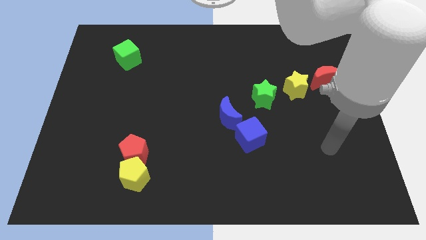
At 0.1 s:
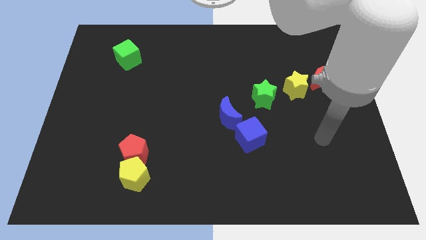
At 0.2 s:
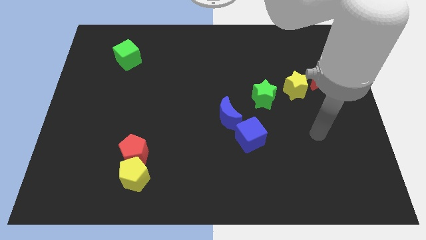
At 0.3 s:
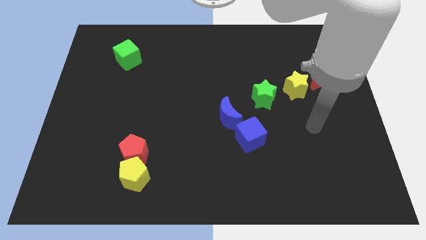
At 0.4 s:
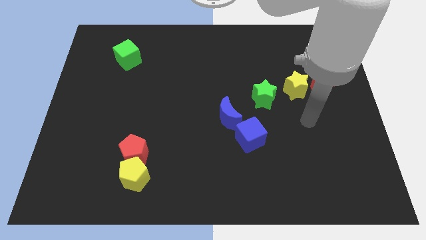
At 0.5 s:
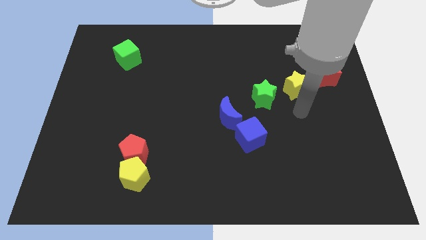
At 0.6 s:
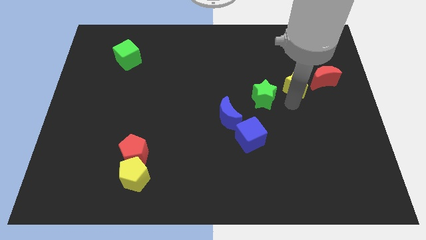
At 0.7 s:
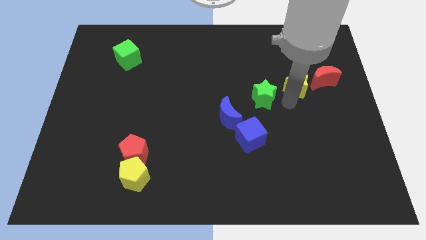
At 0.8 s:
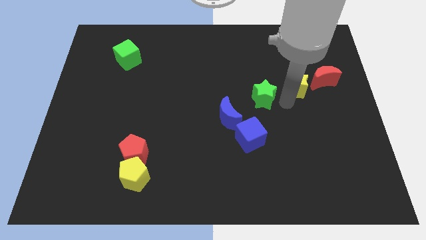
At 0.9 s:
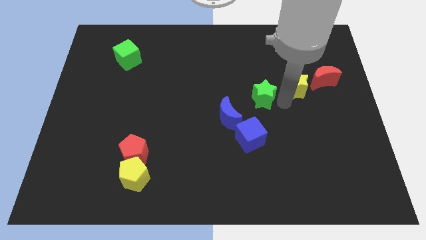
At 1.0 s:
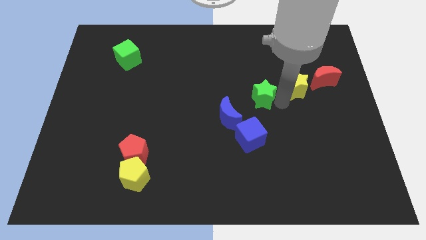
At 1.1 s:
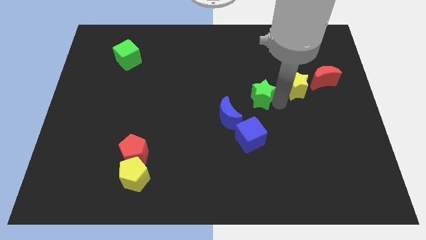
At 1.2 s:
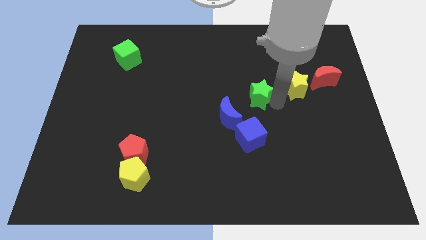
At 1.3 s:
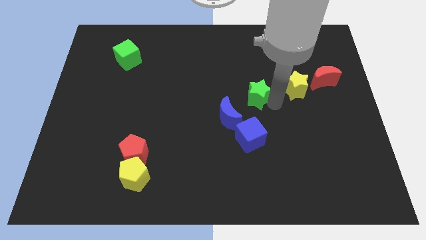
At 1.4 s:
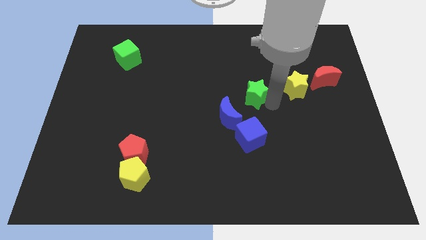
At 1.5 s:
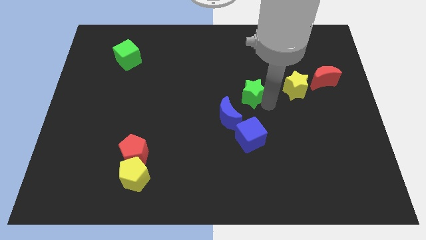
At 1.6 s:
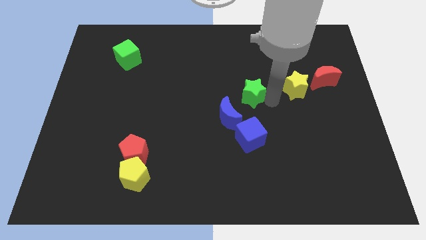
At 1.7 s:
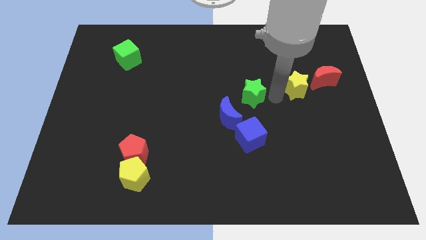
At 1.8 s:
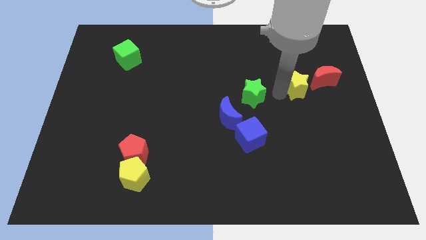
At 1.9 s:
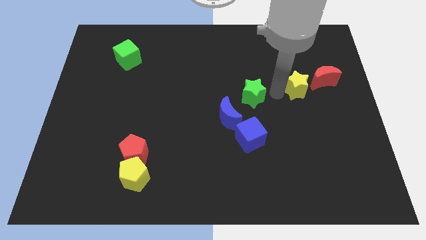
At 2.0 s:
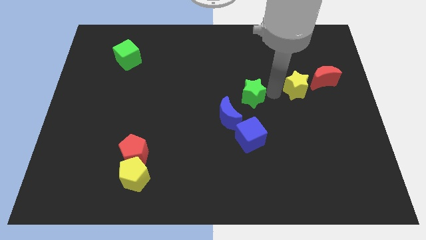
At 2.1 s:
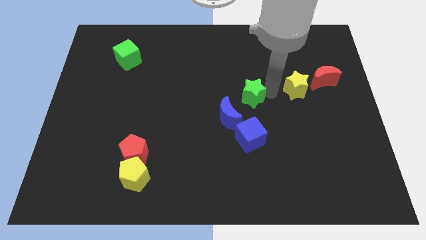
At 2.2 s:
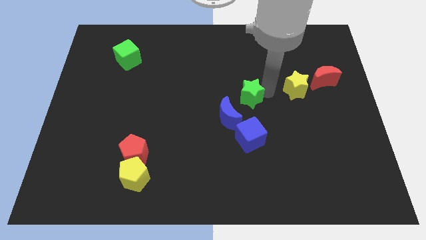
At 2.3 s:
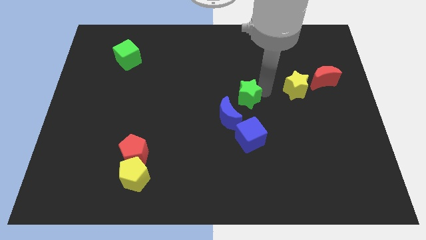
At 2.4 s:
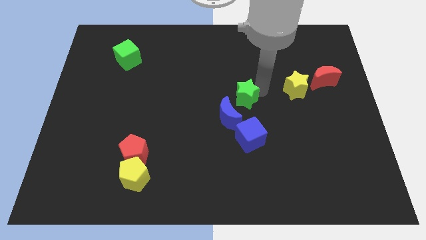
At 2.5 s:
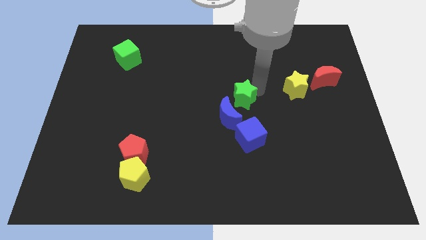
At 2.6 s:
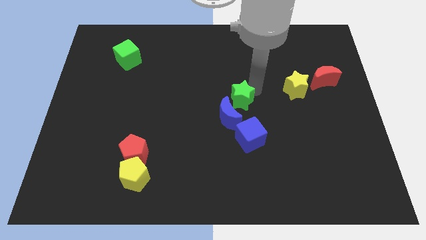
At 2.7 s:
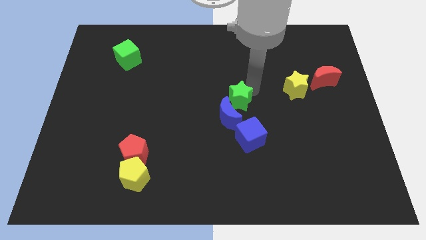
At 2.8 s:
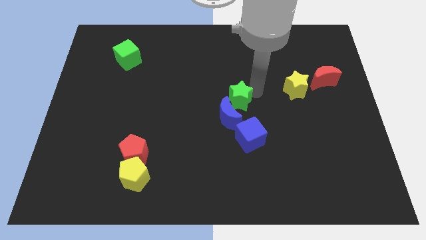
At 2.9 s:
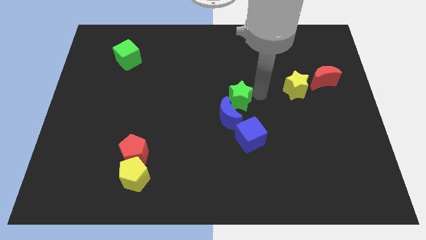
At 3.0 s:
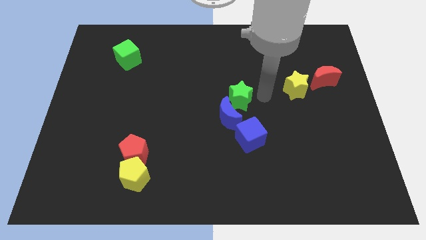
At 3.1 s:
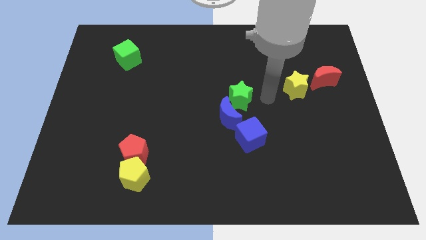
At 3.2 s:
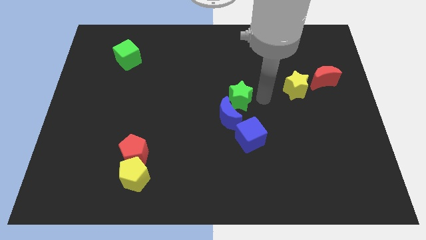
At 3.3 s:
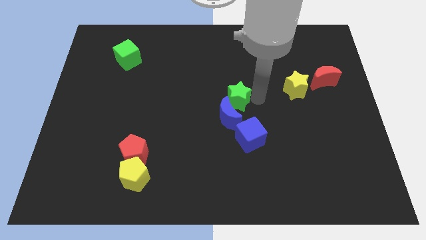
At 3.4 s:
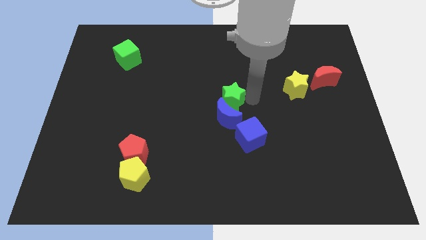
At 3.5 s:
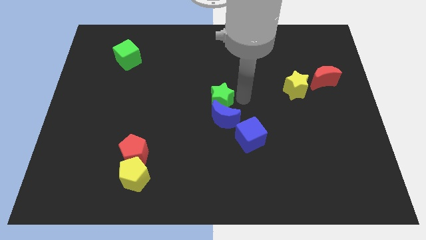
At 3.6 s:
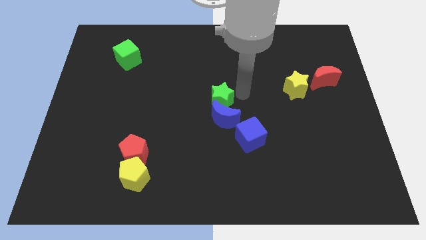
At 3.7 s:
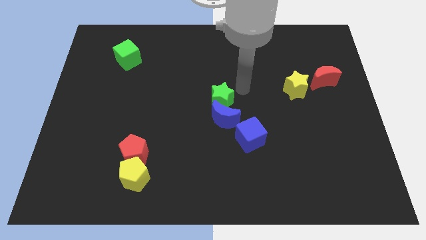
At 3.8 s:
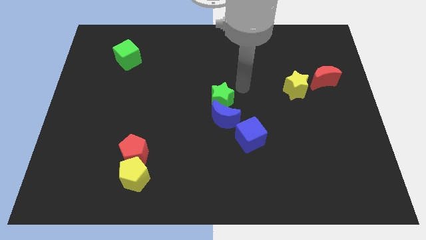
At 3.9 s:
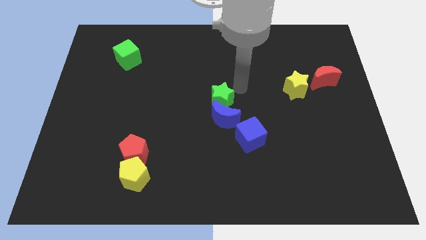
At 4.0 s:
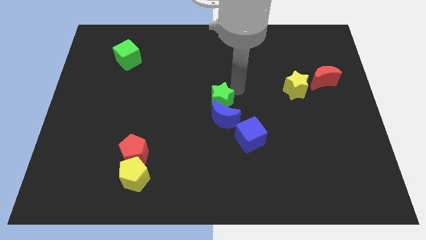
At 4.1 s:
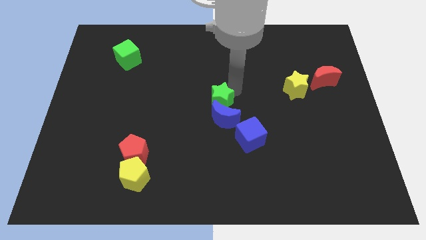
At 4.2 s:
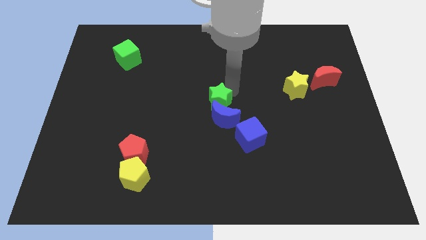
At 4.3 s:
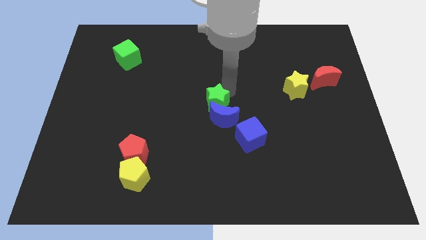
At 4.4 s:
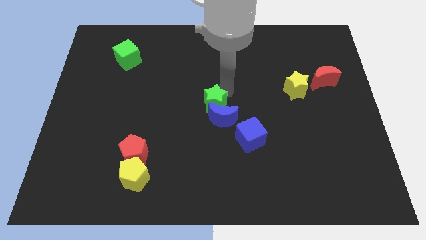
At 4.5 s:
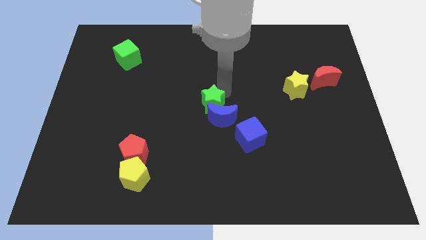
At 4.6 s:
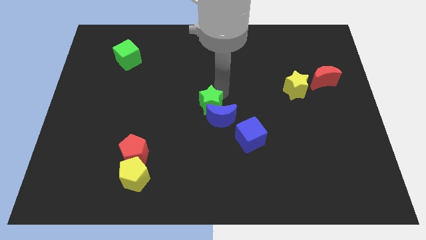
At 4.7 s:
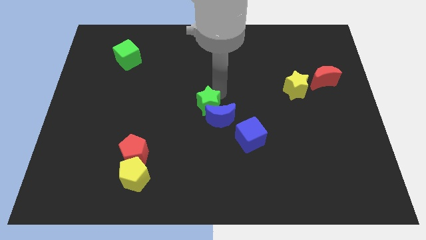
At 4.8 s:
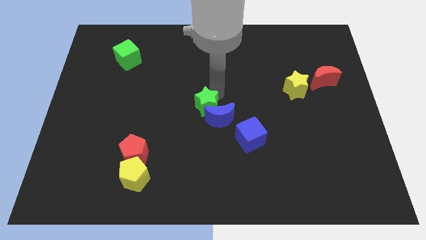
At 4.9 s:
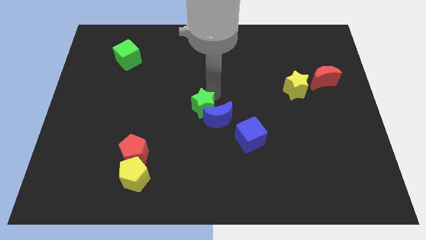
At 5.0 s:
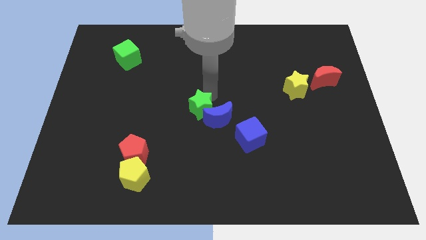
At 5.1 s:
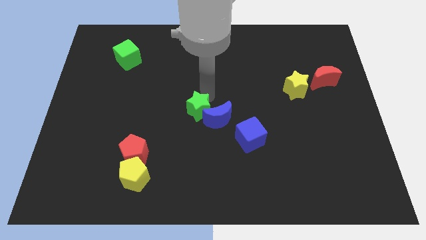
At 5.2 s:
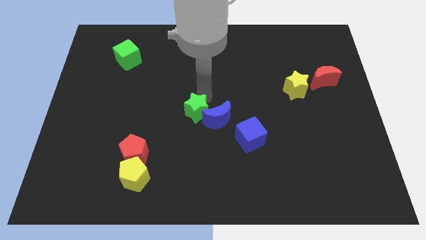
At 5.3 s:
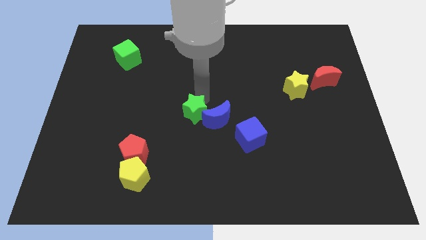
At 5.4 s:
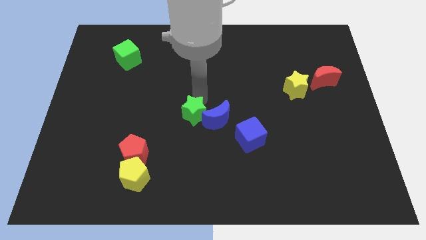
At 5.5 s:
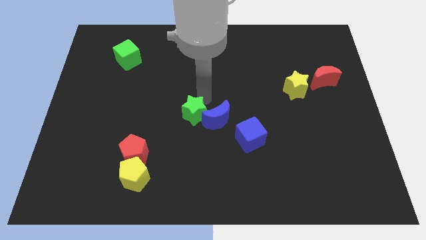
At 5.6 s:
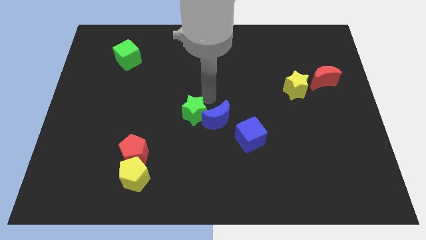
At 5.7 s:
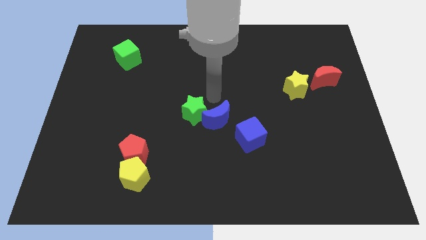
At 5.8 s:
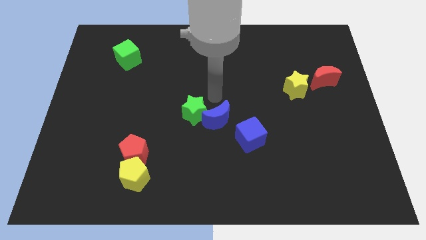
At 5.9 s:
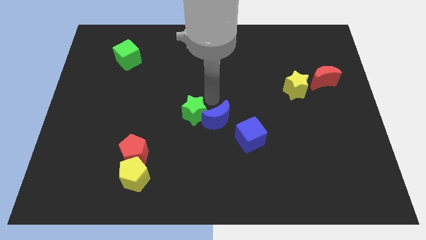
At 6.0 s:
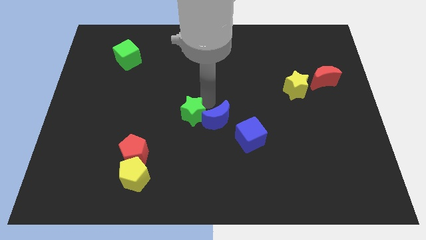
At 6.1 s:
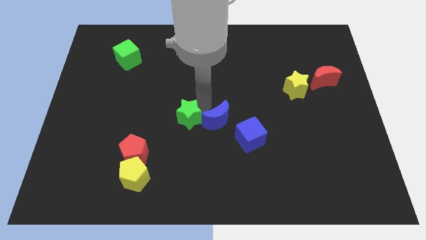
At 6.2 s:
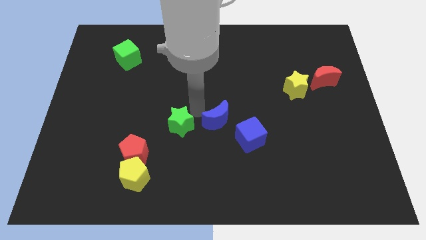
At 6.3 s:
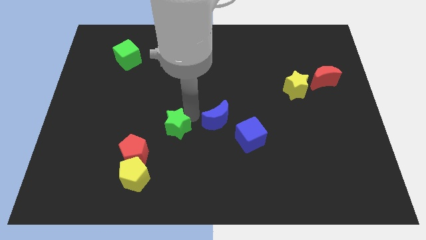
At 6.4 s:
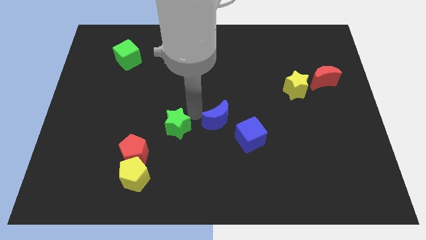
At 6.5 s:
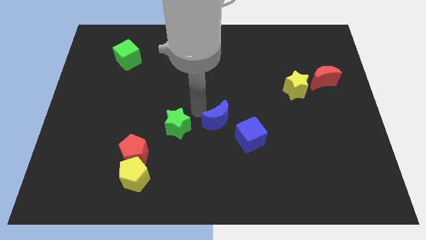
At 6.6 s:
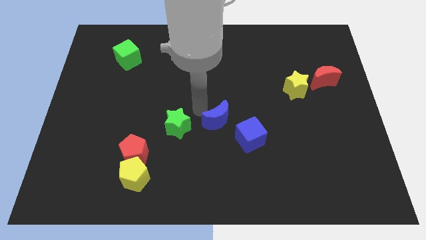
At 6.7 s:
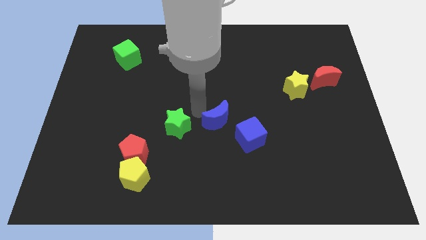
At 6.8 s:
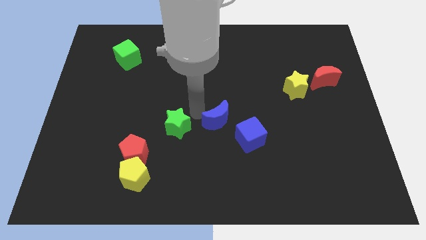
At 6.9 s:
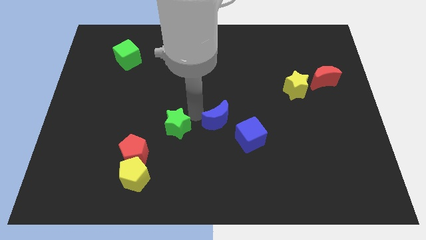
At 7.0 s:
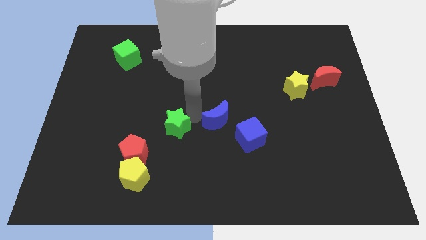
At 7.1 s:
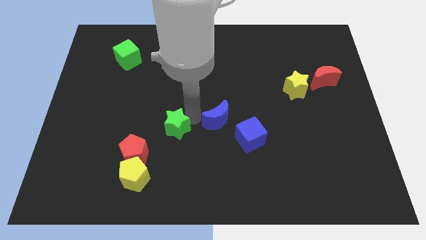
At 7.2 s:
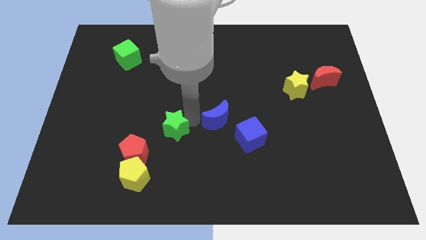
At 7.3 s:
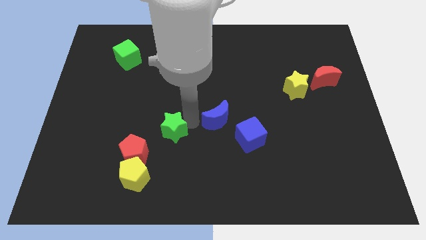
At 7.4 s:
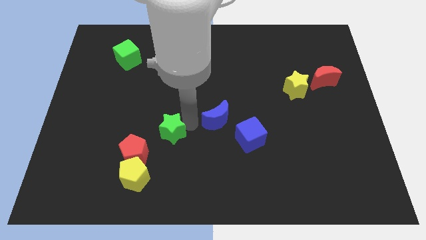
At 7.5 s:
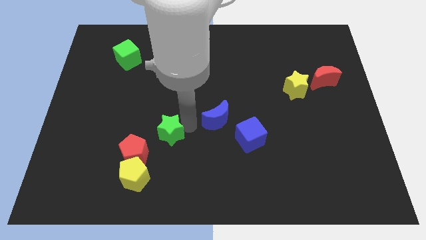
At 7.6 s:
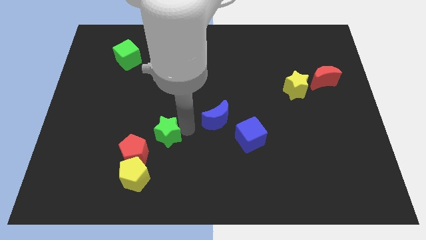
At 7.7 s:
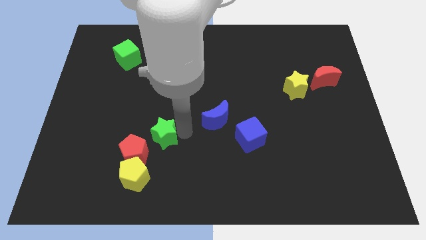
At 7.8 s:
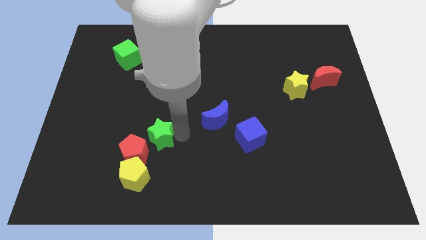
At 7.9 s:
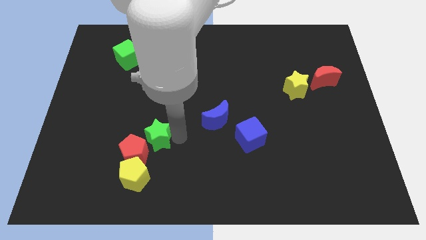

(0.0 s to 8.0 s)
move the green star towards the red pentagon
